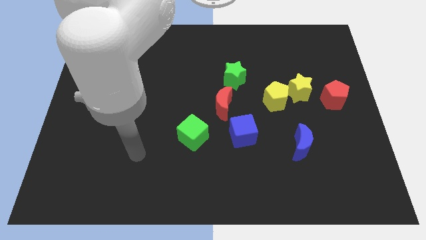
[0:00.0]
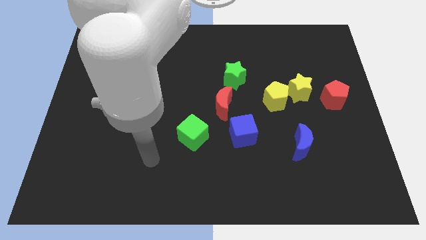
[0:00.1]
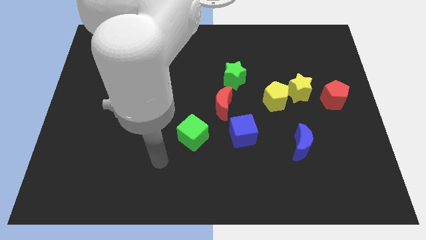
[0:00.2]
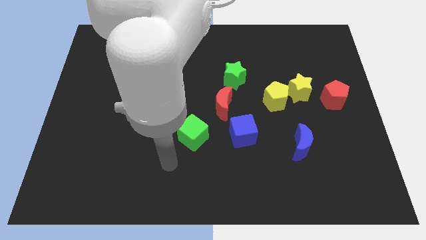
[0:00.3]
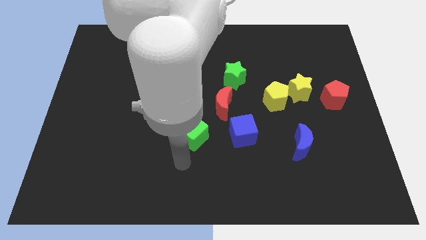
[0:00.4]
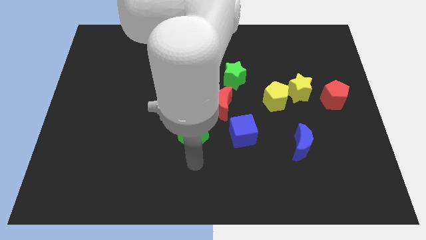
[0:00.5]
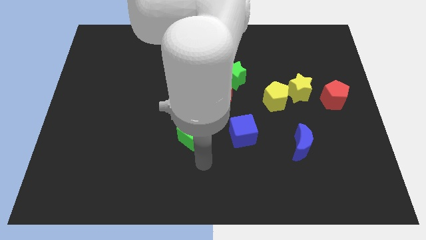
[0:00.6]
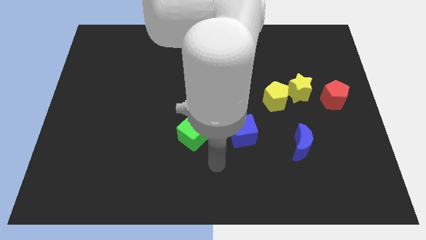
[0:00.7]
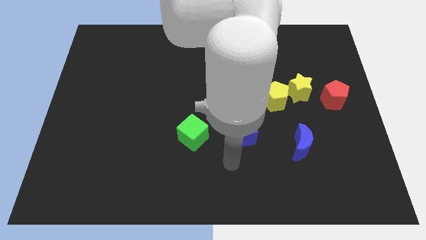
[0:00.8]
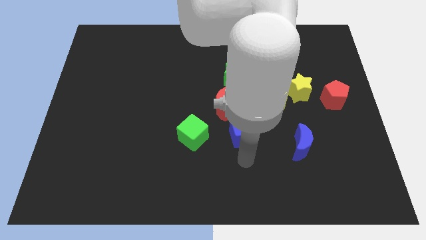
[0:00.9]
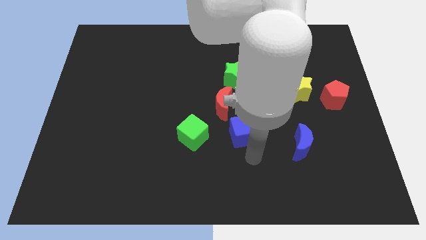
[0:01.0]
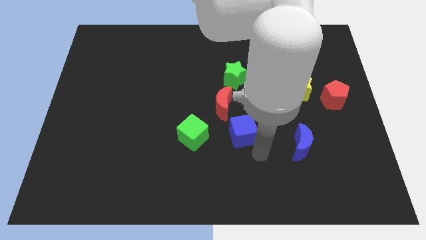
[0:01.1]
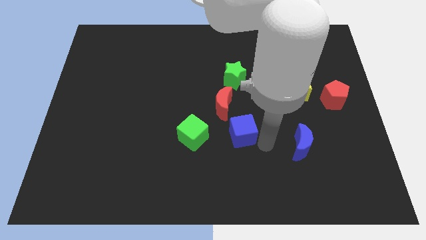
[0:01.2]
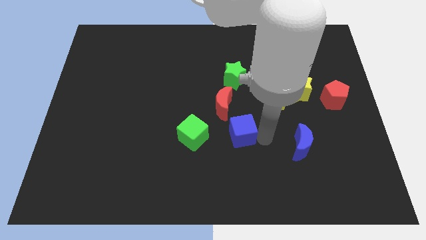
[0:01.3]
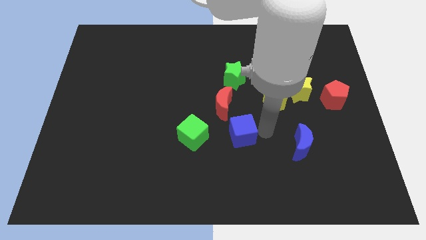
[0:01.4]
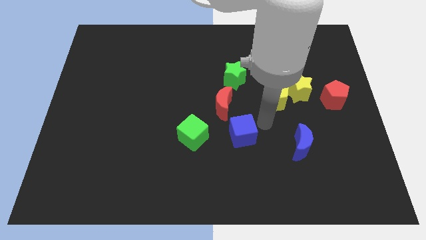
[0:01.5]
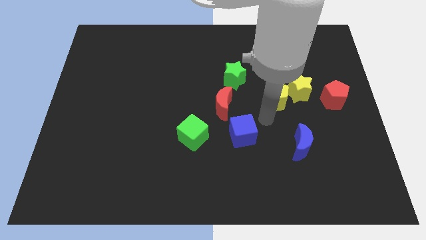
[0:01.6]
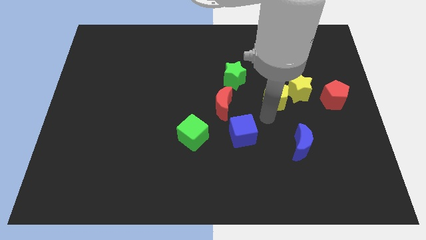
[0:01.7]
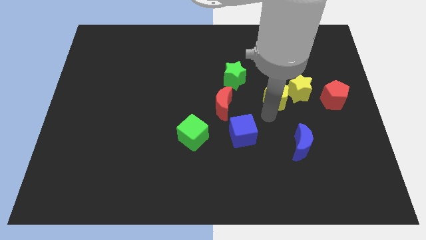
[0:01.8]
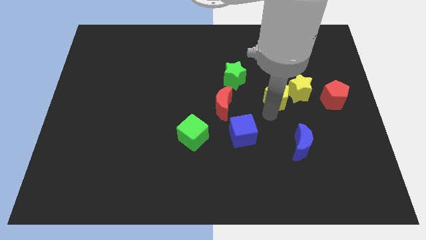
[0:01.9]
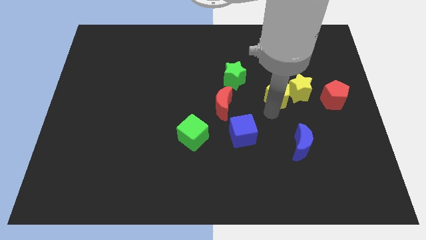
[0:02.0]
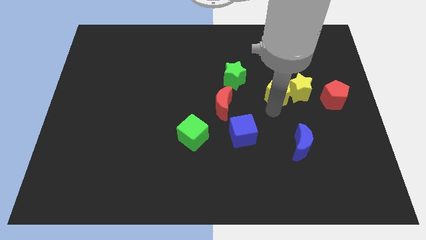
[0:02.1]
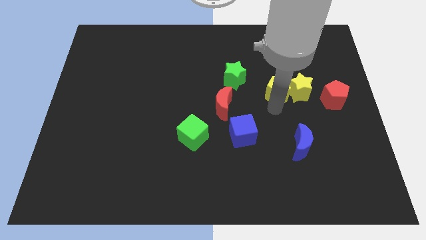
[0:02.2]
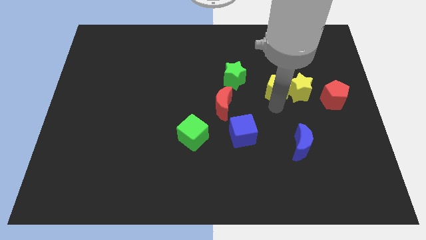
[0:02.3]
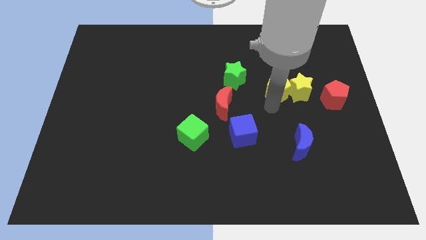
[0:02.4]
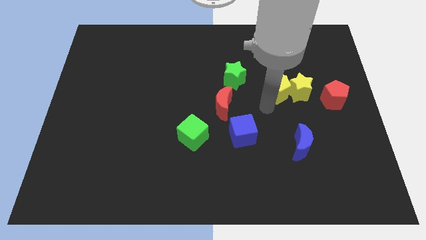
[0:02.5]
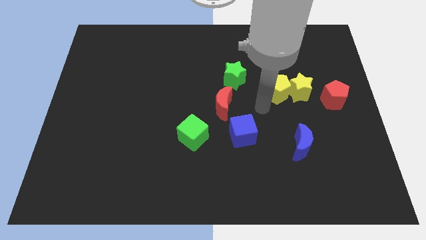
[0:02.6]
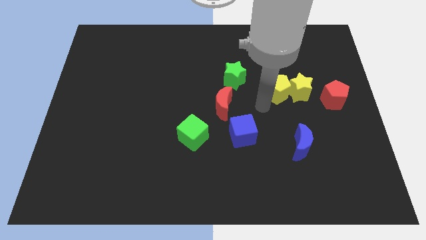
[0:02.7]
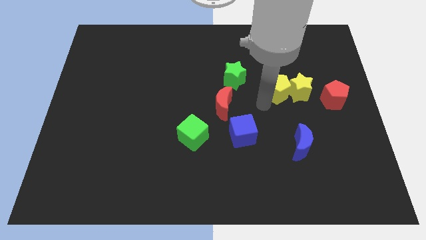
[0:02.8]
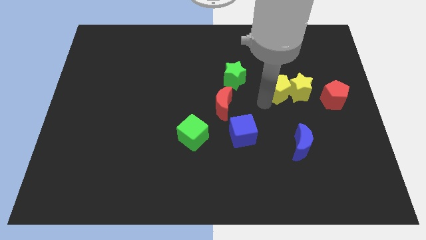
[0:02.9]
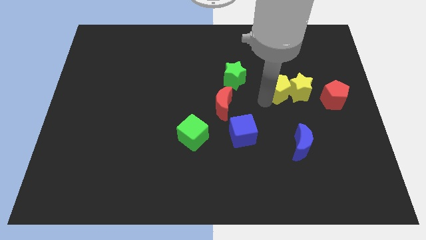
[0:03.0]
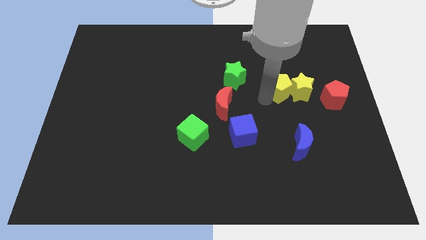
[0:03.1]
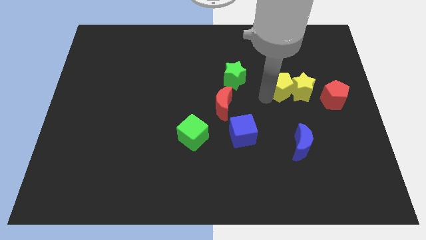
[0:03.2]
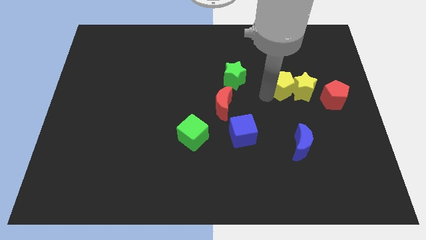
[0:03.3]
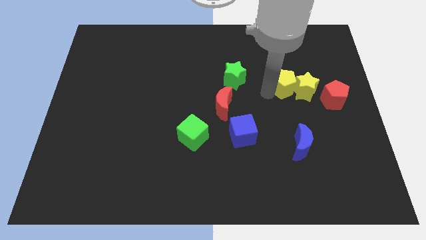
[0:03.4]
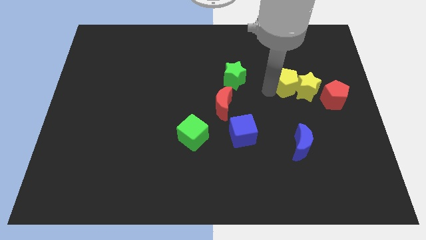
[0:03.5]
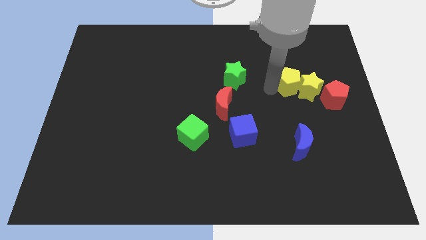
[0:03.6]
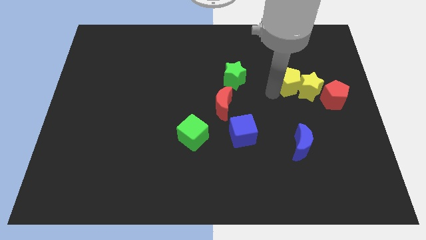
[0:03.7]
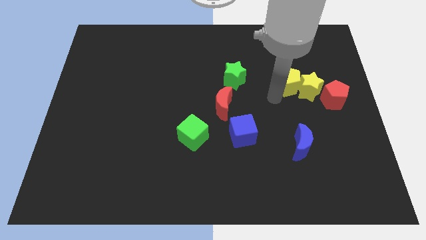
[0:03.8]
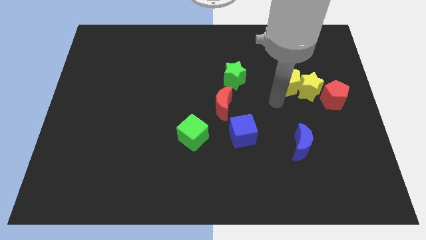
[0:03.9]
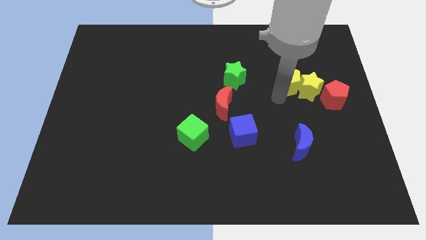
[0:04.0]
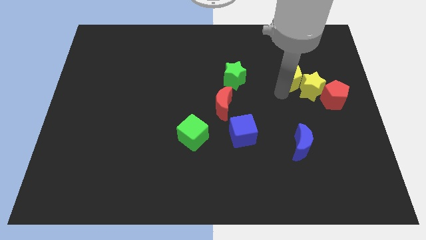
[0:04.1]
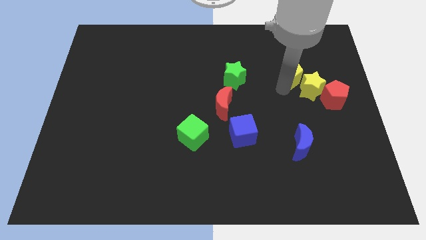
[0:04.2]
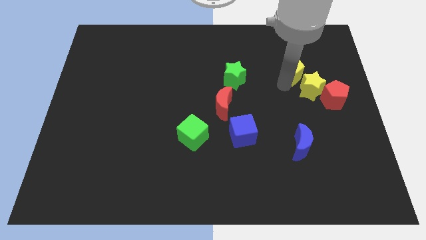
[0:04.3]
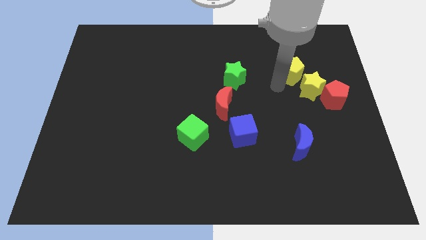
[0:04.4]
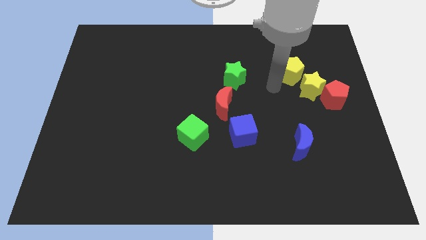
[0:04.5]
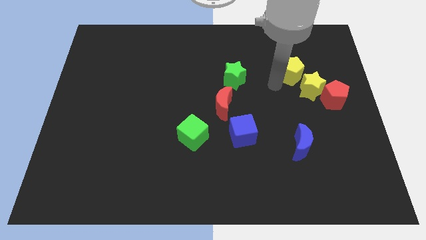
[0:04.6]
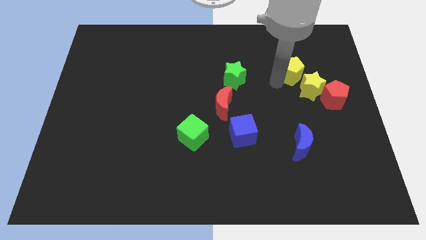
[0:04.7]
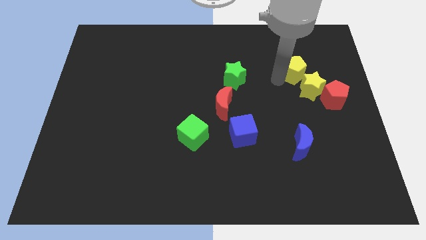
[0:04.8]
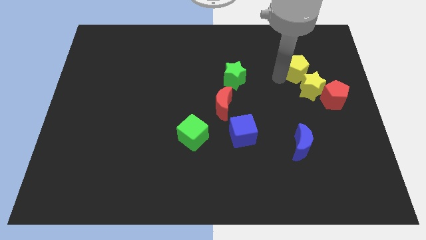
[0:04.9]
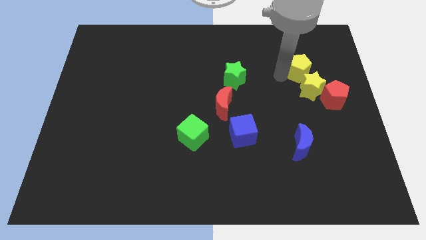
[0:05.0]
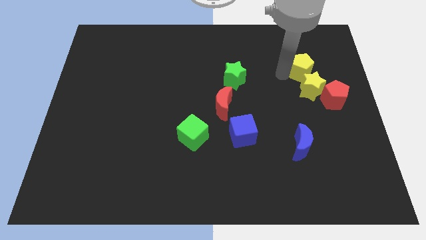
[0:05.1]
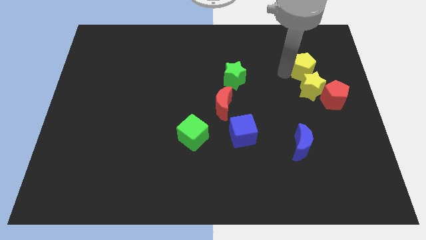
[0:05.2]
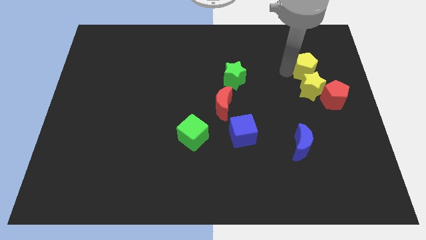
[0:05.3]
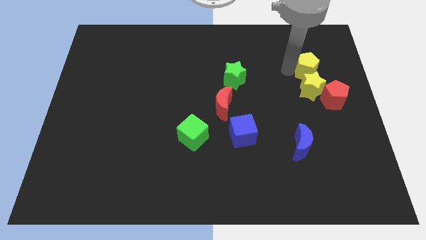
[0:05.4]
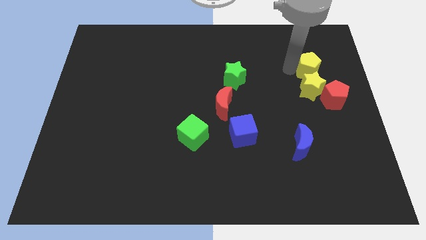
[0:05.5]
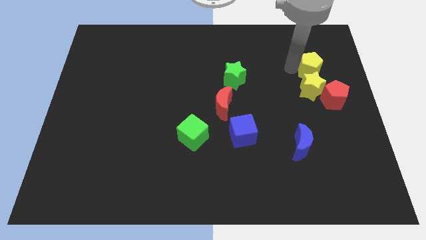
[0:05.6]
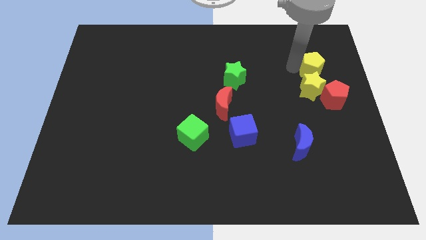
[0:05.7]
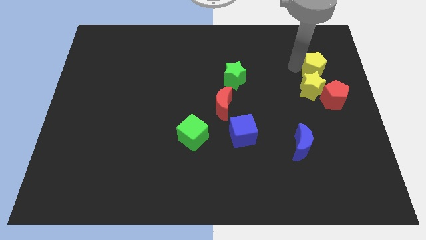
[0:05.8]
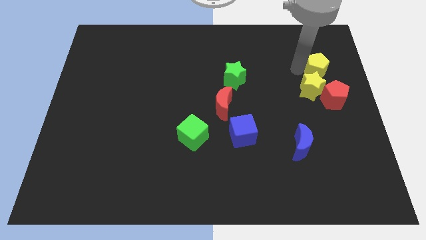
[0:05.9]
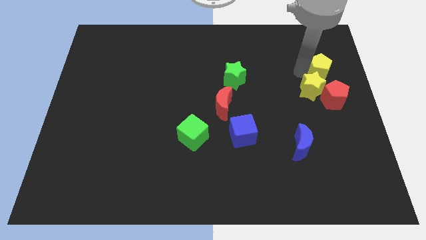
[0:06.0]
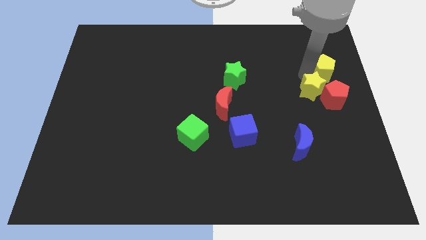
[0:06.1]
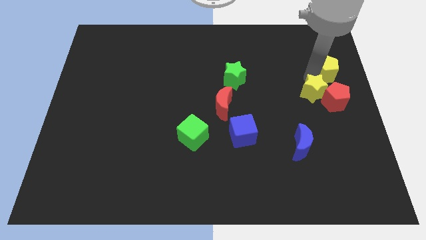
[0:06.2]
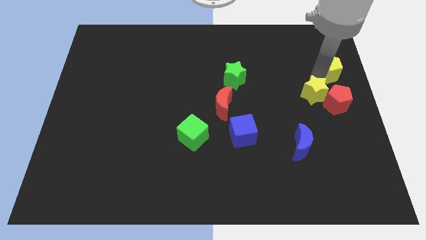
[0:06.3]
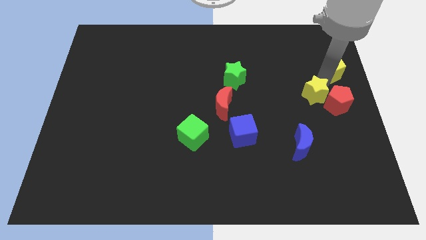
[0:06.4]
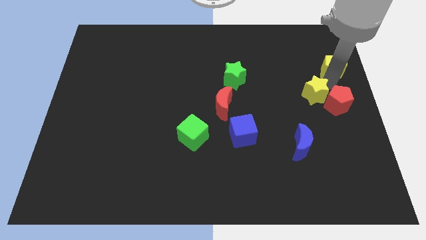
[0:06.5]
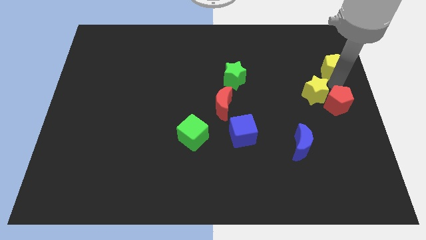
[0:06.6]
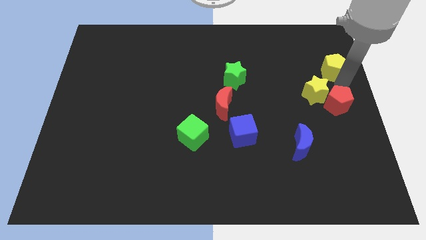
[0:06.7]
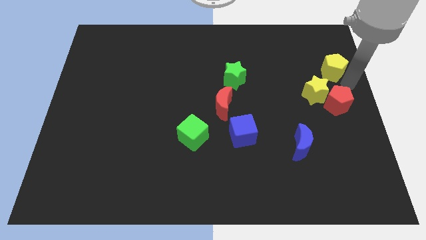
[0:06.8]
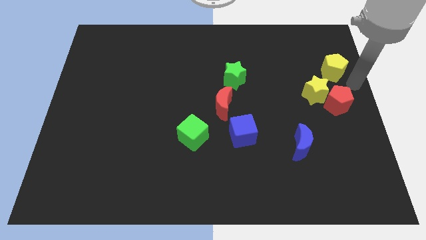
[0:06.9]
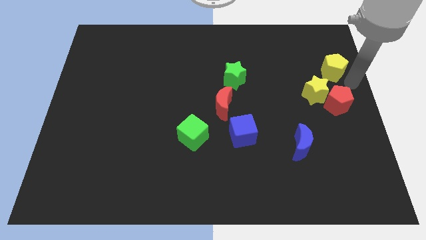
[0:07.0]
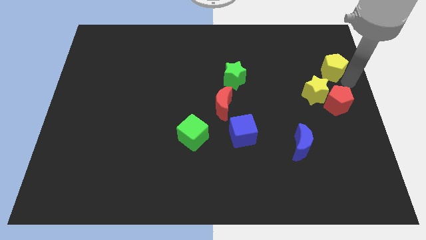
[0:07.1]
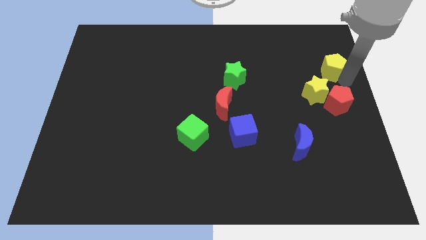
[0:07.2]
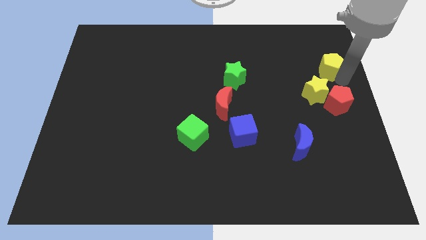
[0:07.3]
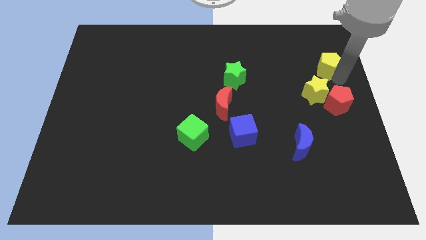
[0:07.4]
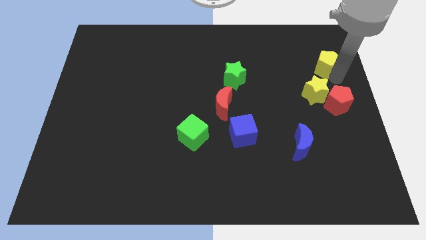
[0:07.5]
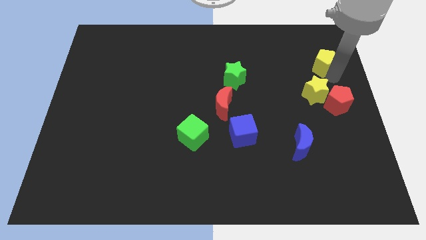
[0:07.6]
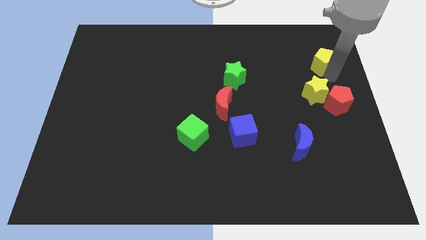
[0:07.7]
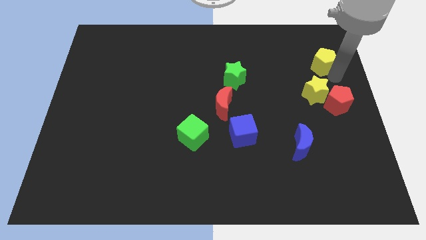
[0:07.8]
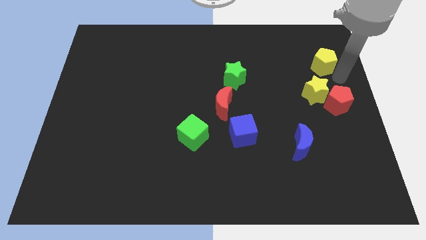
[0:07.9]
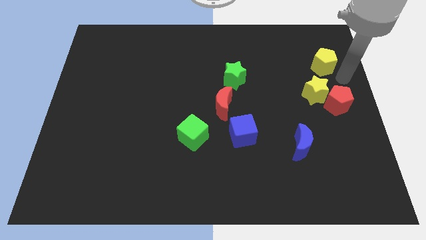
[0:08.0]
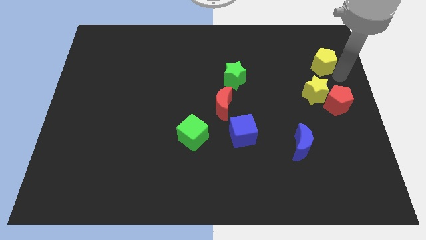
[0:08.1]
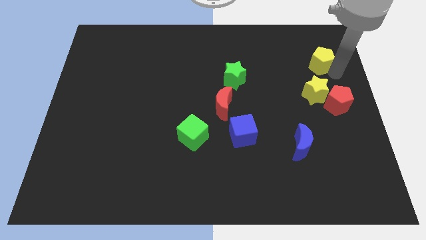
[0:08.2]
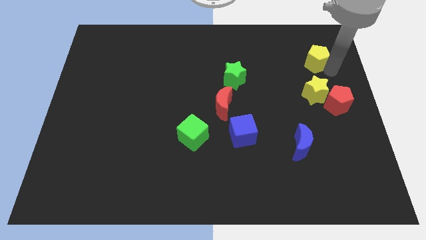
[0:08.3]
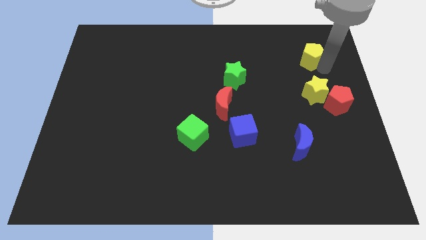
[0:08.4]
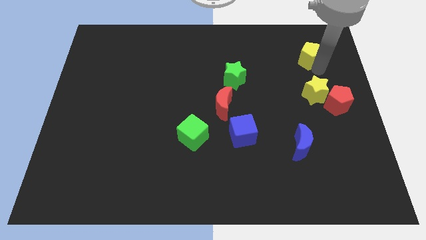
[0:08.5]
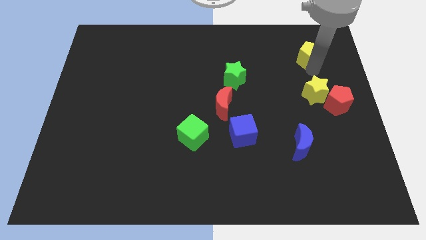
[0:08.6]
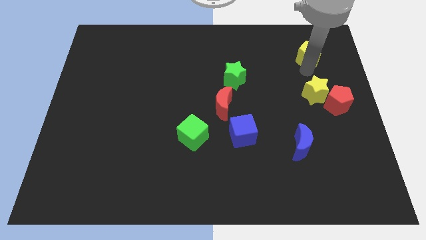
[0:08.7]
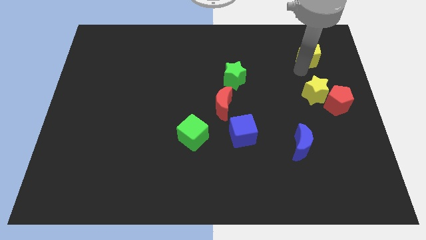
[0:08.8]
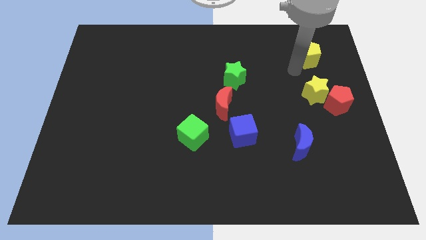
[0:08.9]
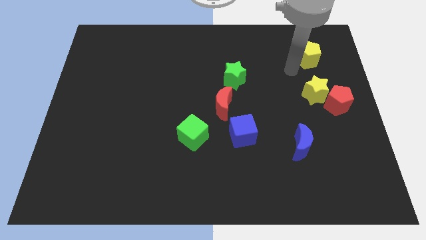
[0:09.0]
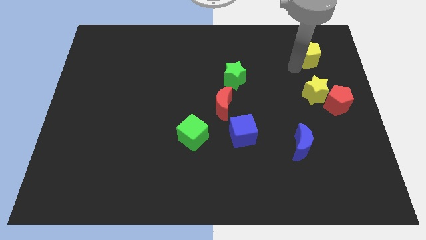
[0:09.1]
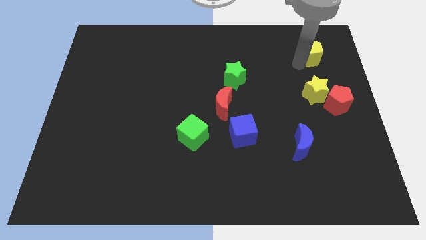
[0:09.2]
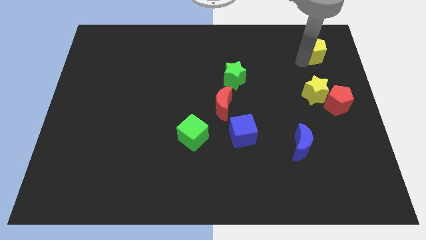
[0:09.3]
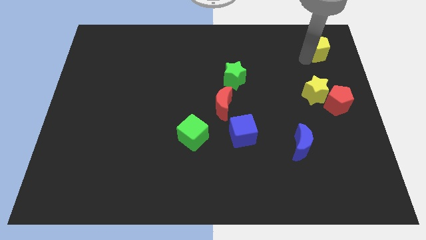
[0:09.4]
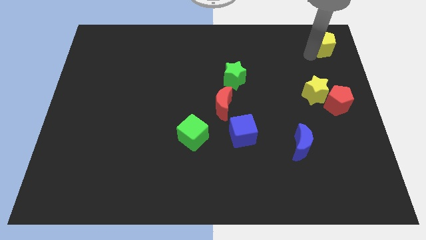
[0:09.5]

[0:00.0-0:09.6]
push the yellow pentagon to the upper right corner
